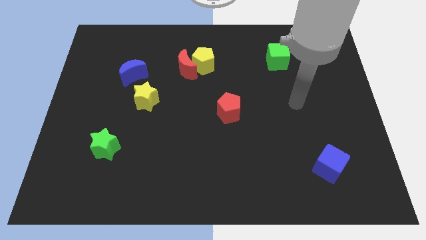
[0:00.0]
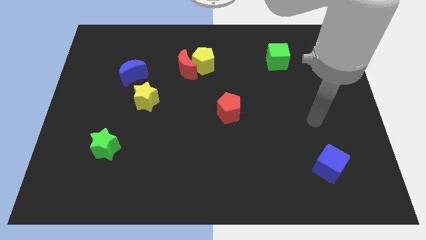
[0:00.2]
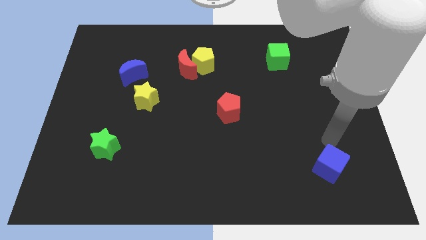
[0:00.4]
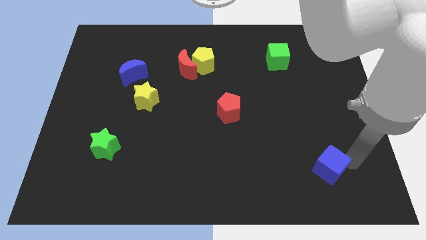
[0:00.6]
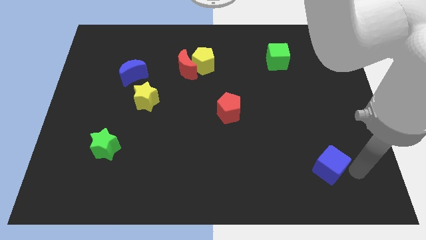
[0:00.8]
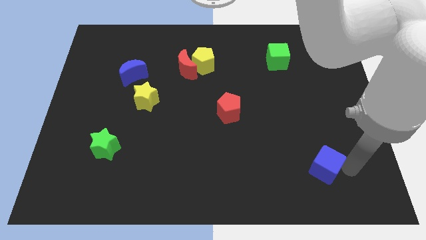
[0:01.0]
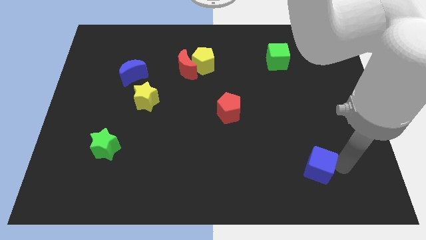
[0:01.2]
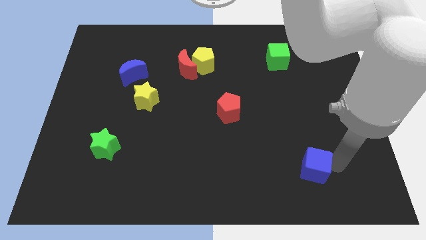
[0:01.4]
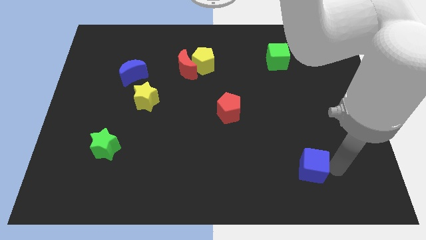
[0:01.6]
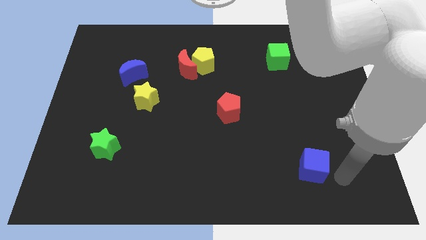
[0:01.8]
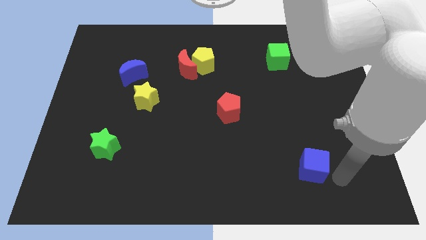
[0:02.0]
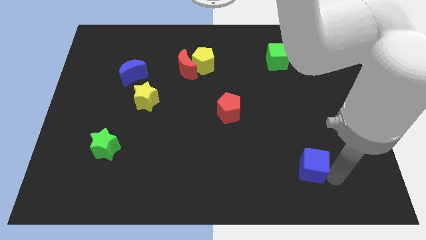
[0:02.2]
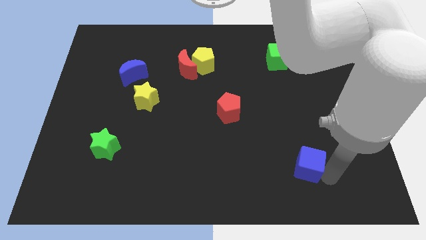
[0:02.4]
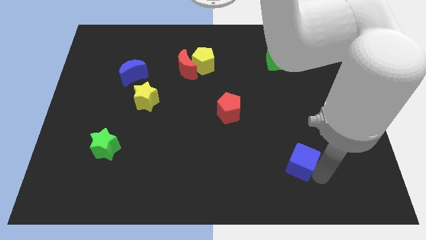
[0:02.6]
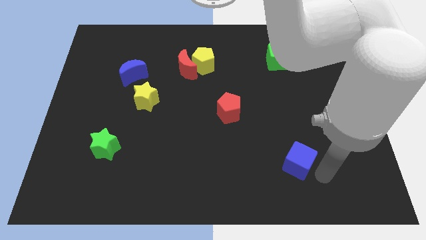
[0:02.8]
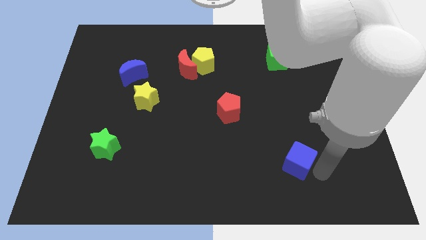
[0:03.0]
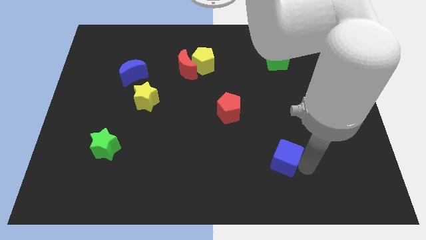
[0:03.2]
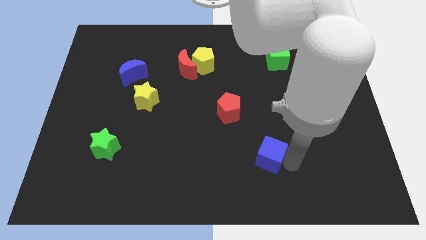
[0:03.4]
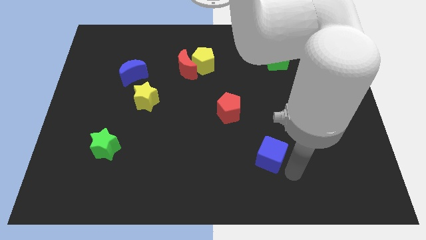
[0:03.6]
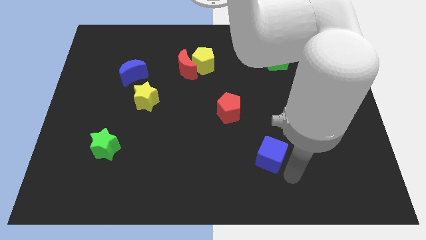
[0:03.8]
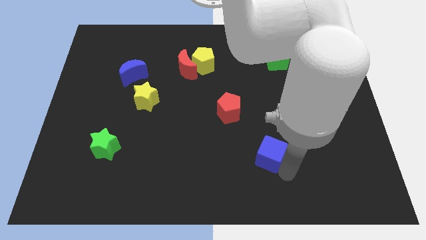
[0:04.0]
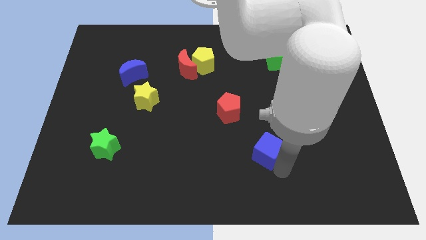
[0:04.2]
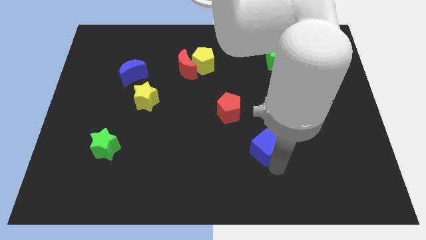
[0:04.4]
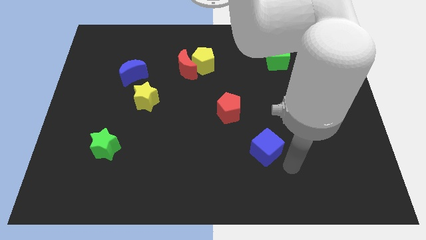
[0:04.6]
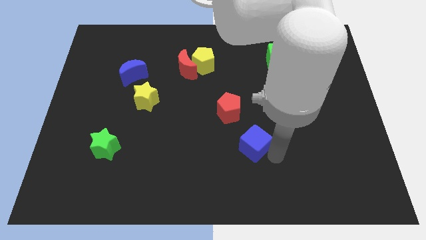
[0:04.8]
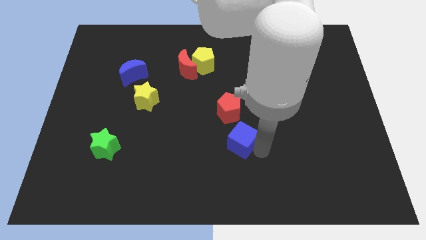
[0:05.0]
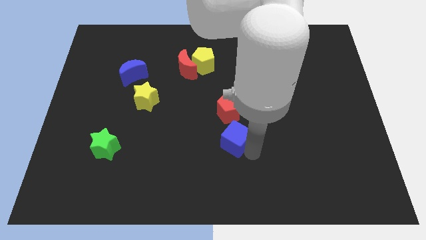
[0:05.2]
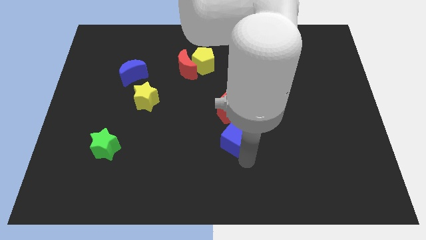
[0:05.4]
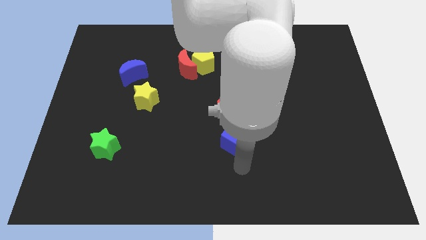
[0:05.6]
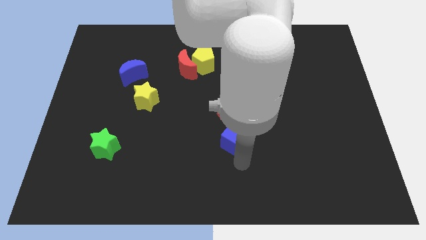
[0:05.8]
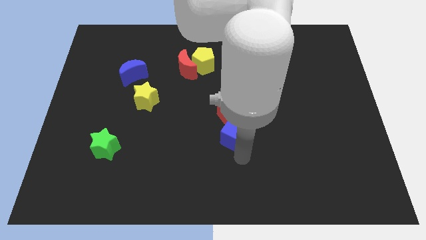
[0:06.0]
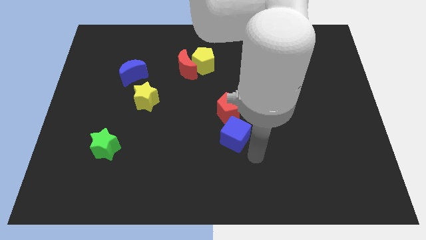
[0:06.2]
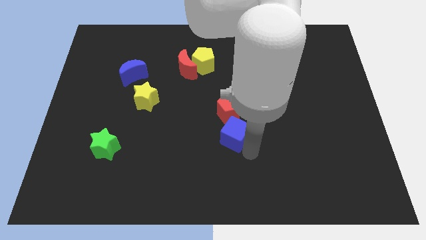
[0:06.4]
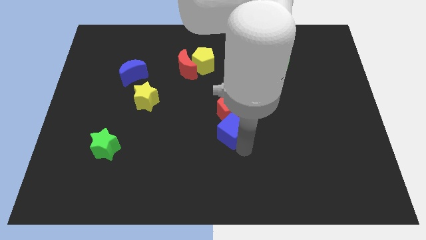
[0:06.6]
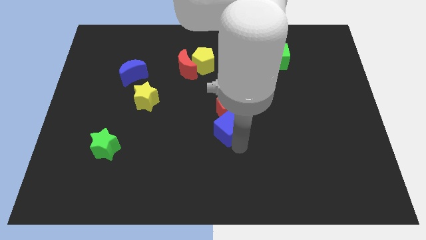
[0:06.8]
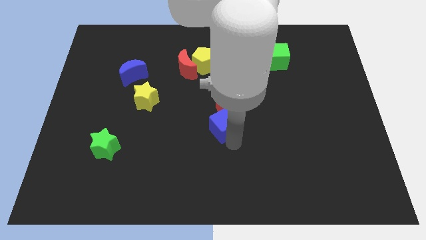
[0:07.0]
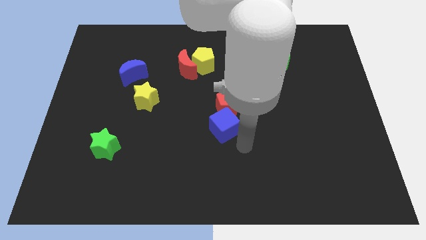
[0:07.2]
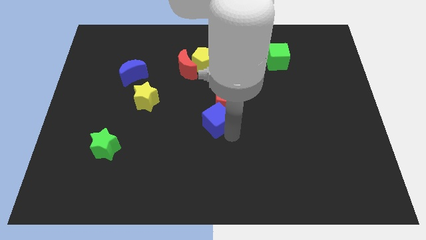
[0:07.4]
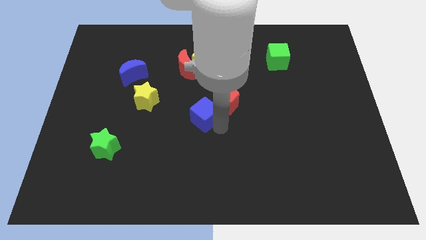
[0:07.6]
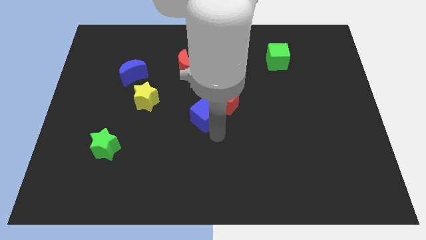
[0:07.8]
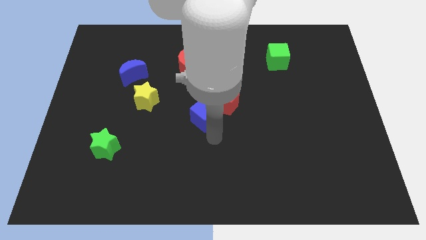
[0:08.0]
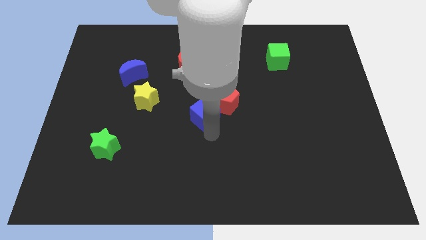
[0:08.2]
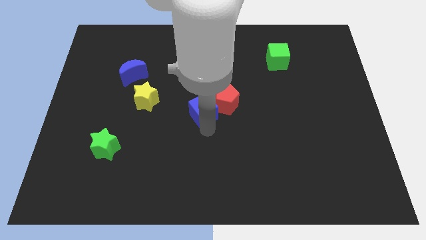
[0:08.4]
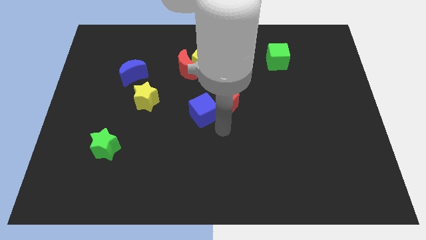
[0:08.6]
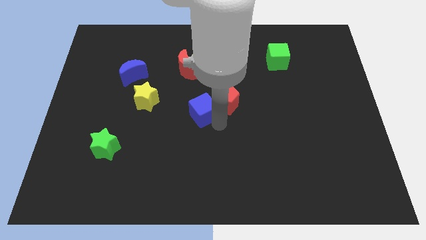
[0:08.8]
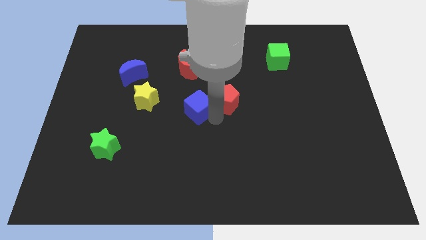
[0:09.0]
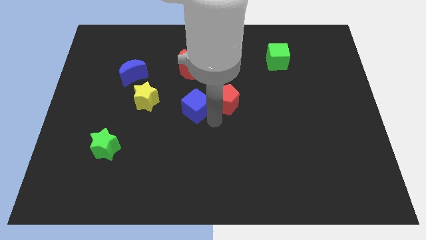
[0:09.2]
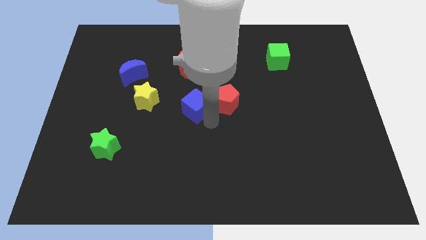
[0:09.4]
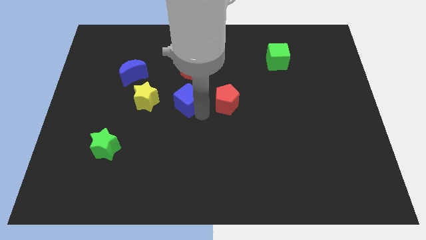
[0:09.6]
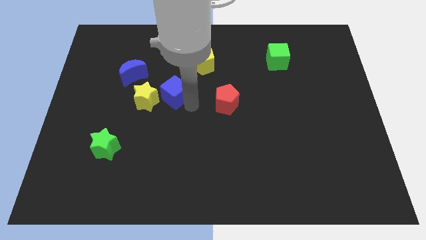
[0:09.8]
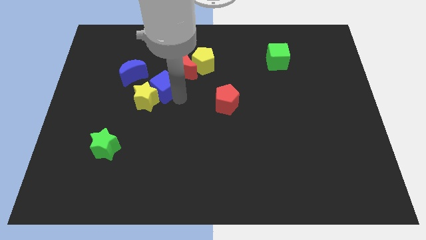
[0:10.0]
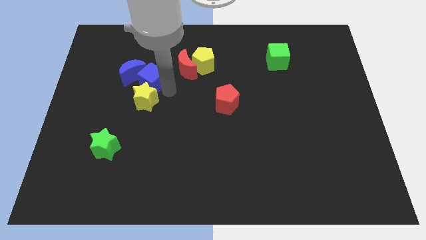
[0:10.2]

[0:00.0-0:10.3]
put the blue cube to the blue moon

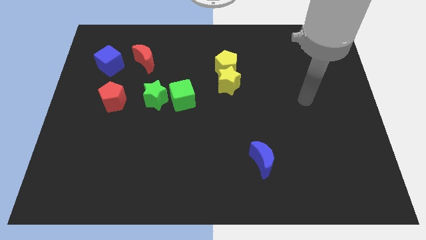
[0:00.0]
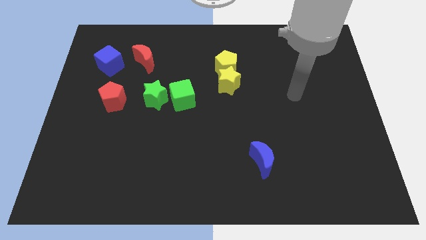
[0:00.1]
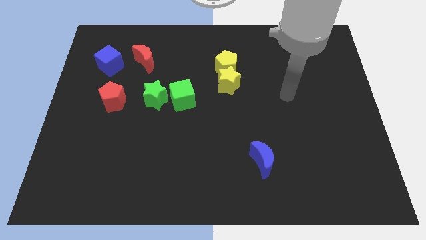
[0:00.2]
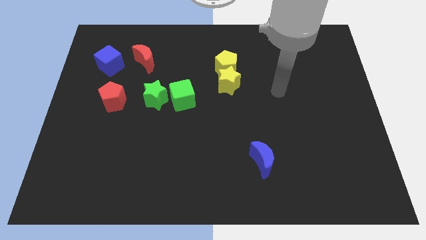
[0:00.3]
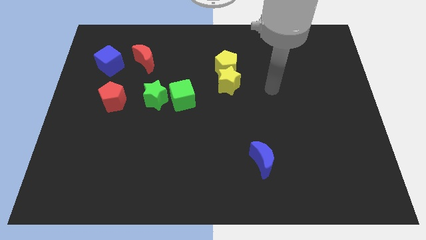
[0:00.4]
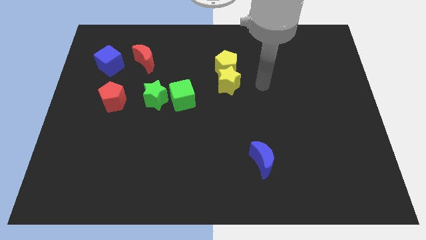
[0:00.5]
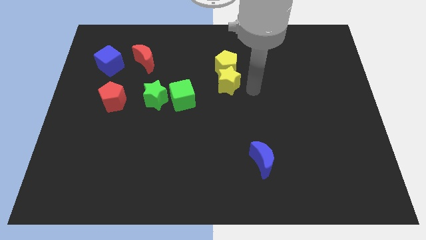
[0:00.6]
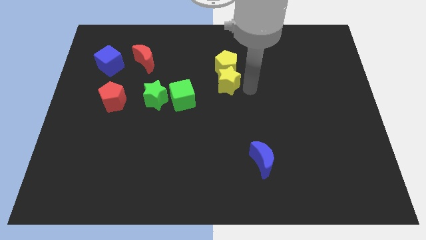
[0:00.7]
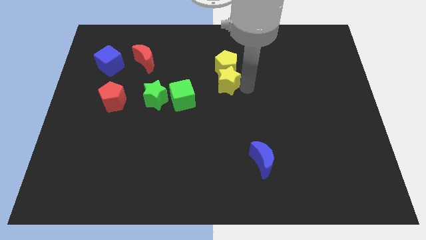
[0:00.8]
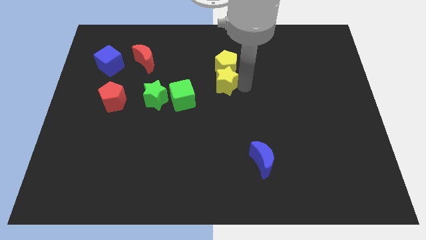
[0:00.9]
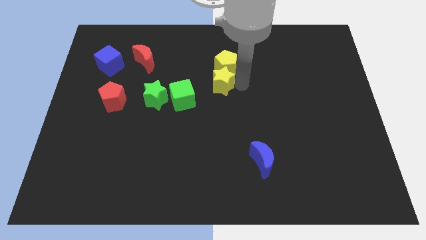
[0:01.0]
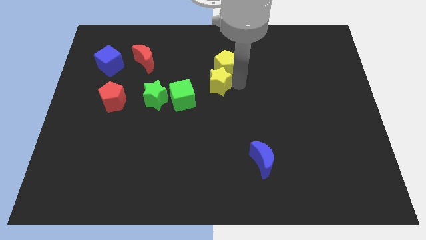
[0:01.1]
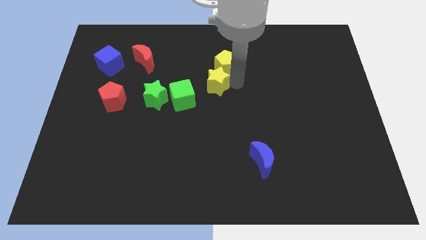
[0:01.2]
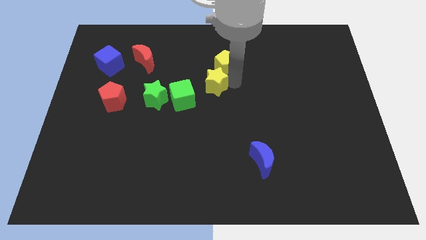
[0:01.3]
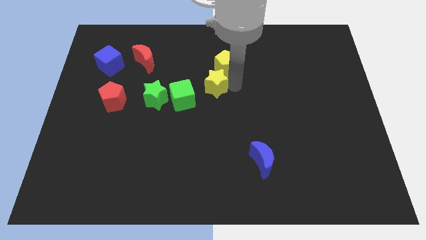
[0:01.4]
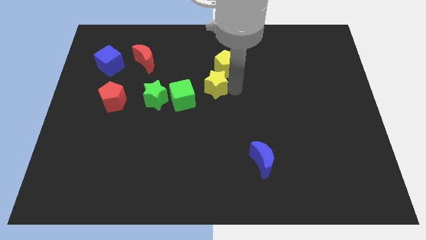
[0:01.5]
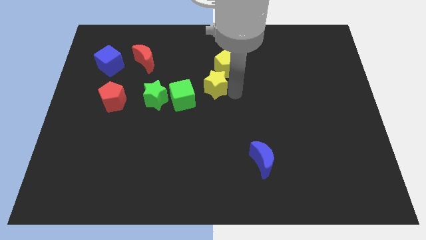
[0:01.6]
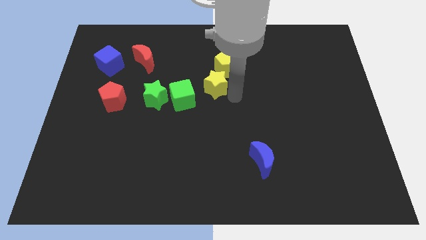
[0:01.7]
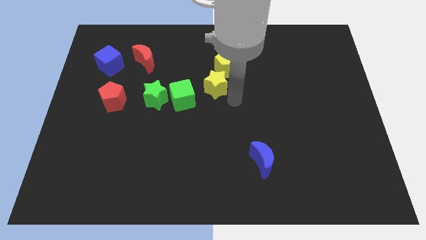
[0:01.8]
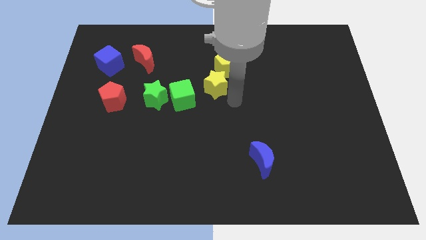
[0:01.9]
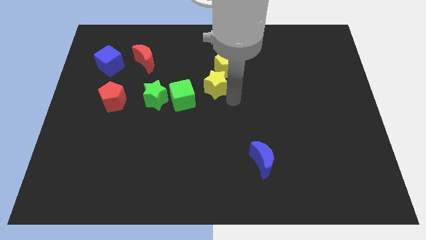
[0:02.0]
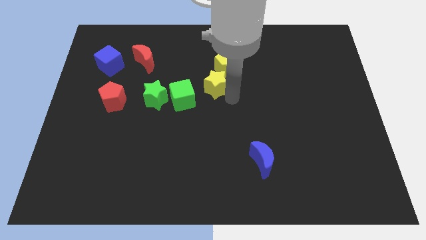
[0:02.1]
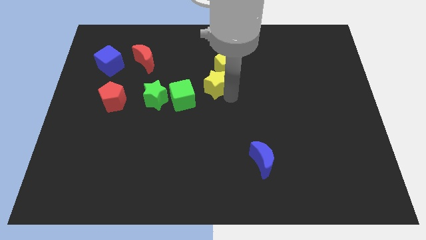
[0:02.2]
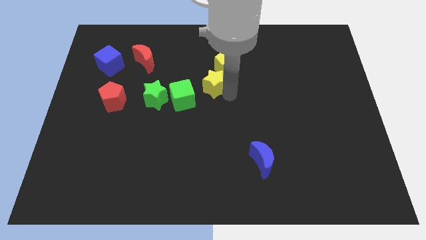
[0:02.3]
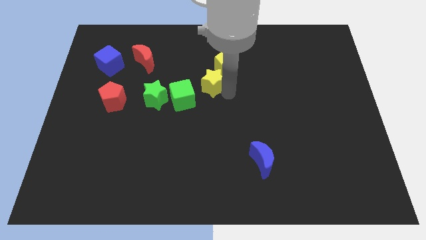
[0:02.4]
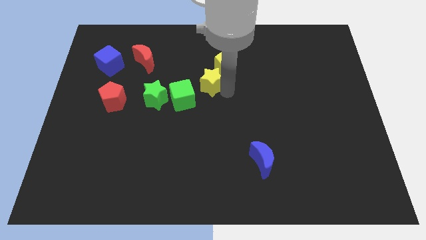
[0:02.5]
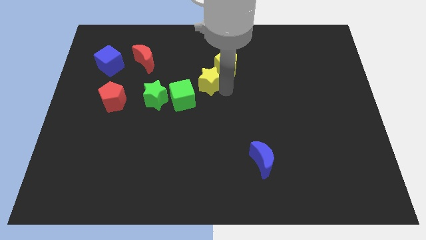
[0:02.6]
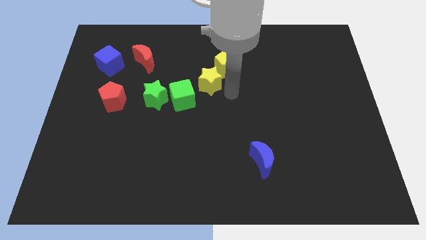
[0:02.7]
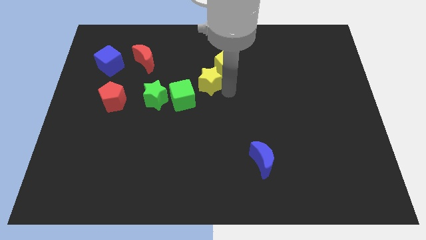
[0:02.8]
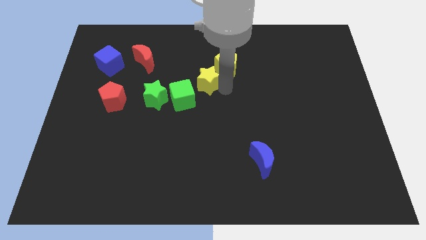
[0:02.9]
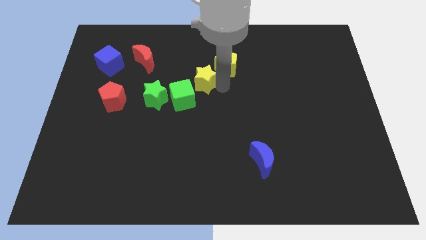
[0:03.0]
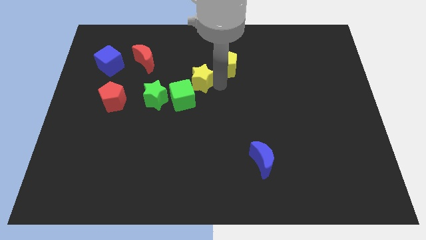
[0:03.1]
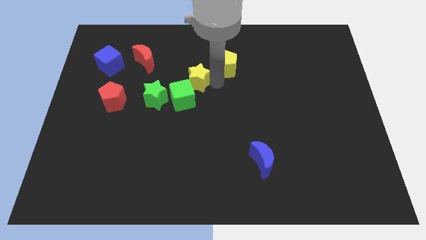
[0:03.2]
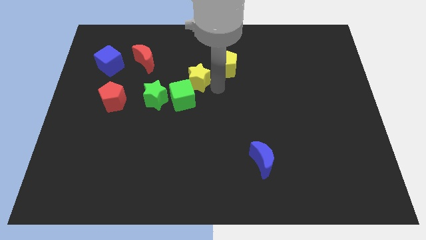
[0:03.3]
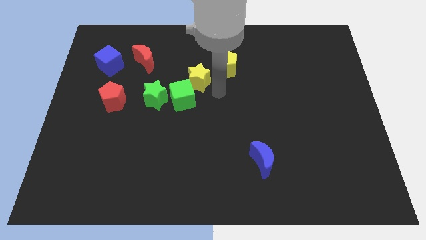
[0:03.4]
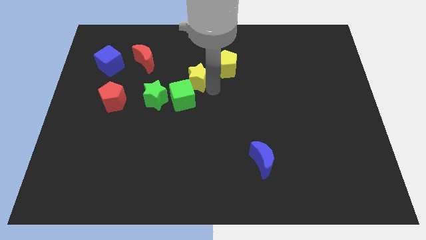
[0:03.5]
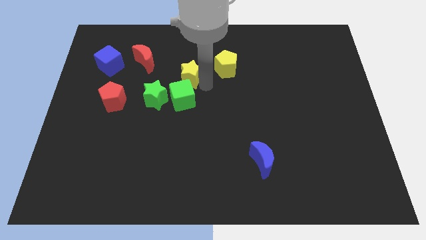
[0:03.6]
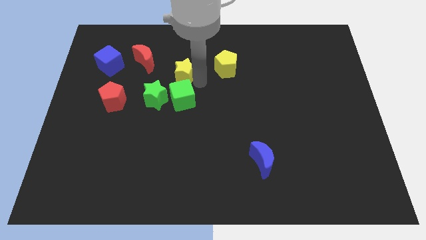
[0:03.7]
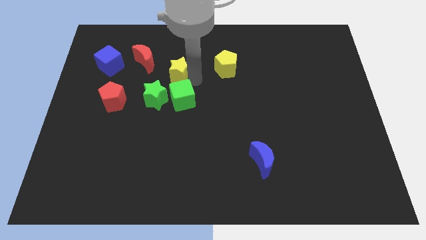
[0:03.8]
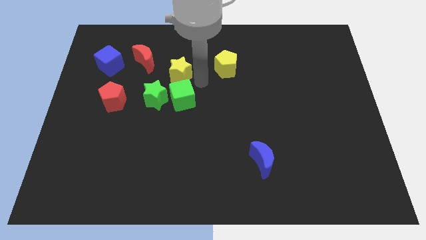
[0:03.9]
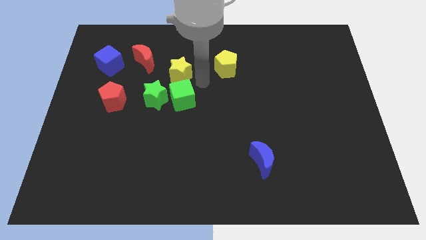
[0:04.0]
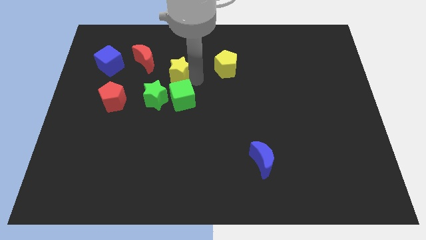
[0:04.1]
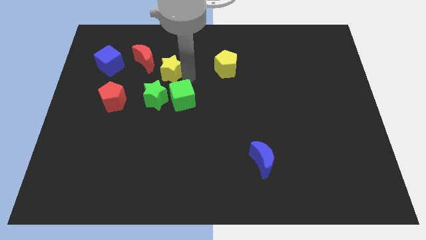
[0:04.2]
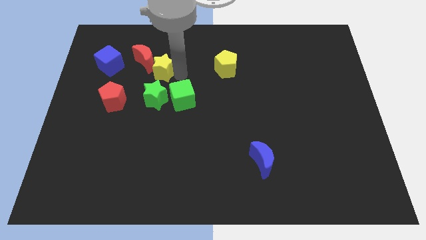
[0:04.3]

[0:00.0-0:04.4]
put the yellow star towards the red moon
